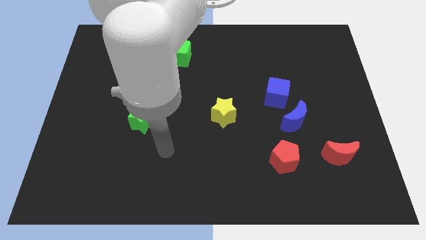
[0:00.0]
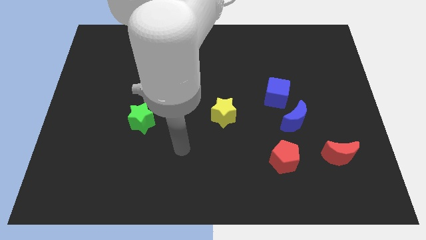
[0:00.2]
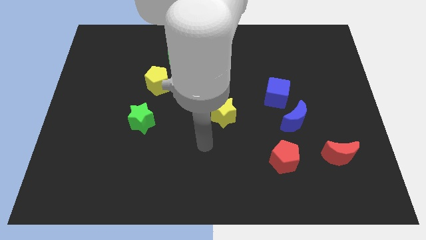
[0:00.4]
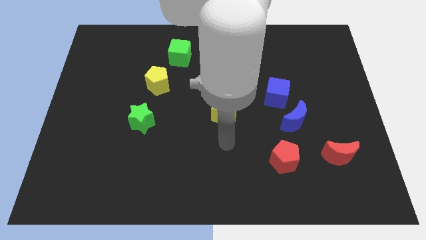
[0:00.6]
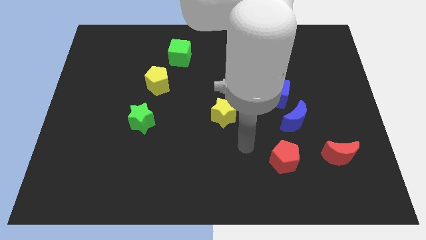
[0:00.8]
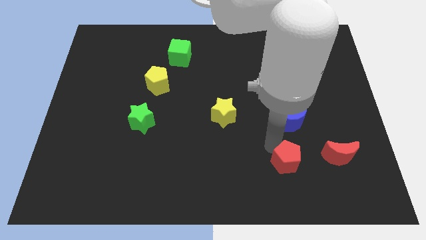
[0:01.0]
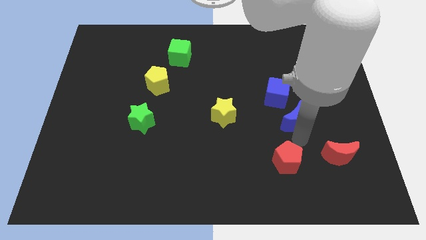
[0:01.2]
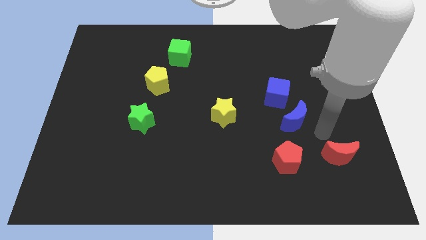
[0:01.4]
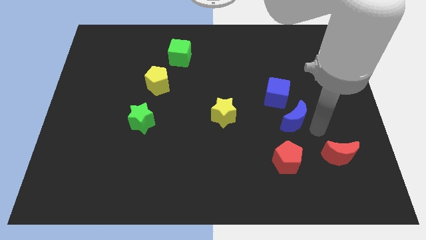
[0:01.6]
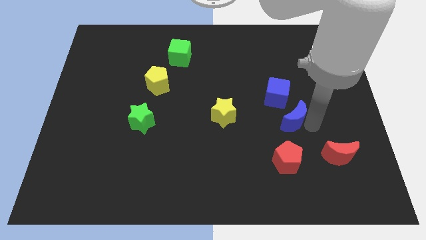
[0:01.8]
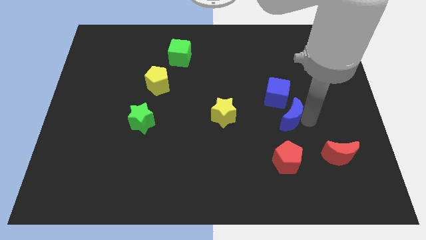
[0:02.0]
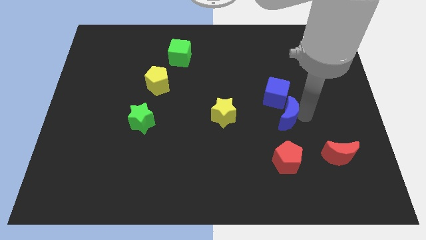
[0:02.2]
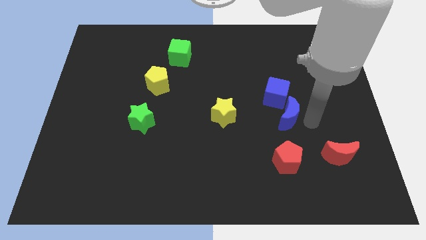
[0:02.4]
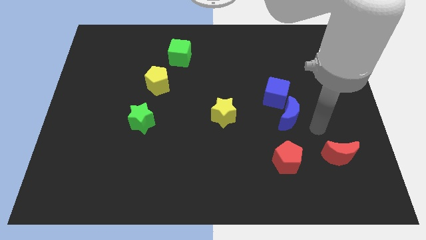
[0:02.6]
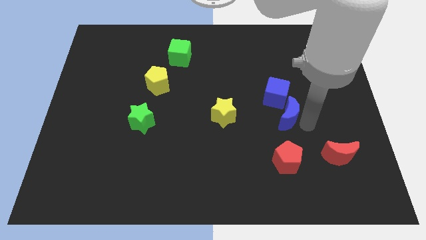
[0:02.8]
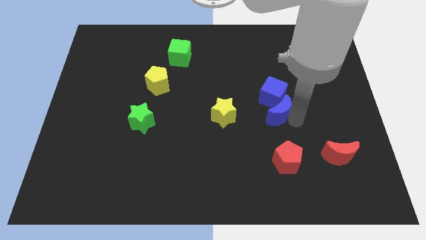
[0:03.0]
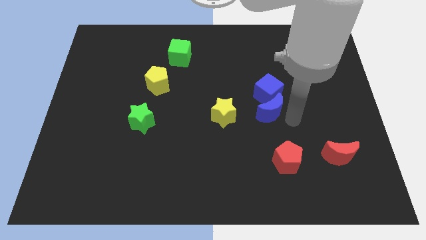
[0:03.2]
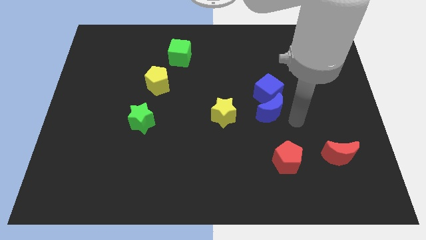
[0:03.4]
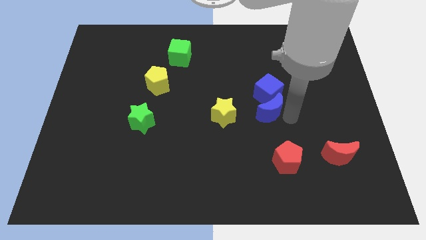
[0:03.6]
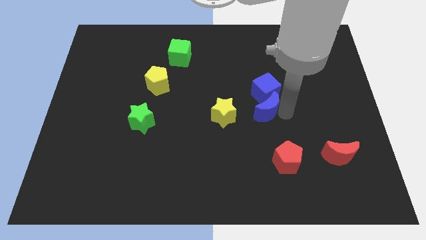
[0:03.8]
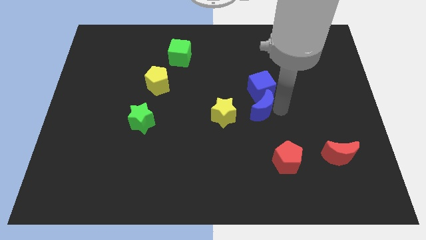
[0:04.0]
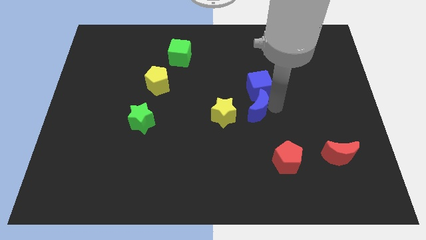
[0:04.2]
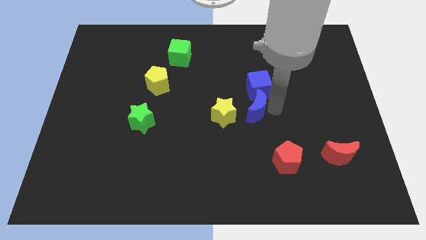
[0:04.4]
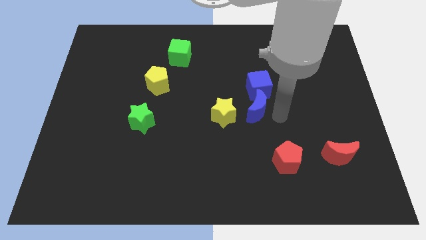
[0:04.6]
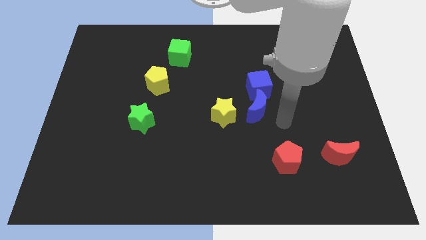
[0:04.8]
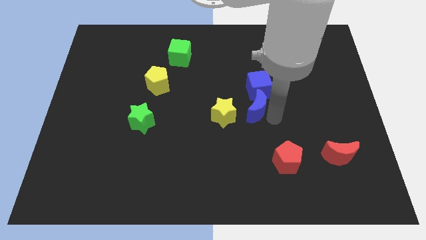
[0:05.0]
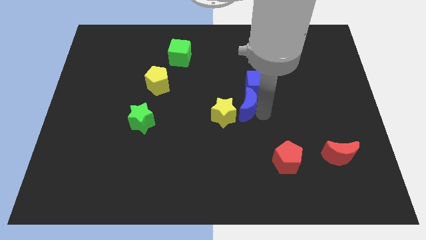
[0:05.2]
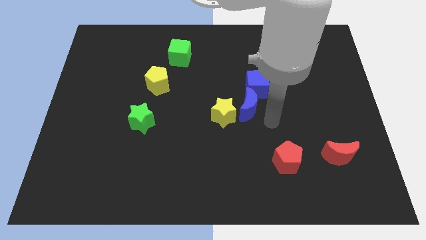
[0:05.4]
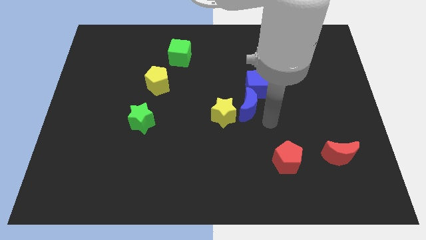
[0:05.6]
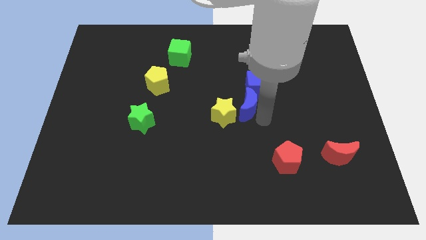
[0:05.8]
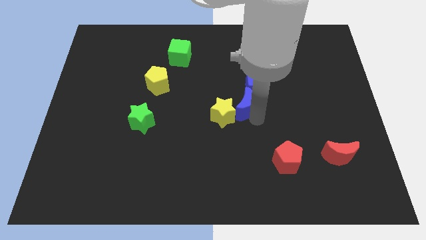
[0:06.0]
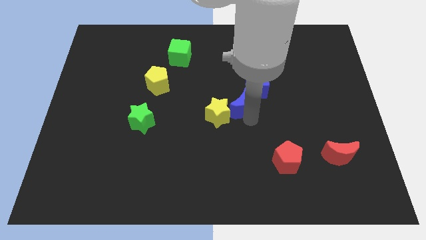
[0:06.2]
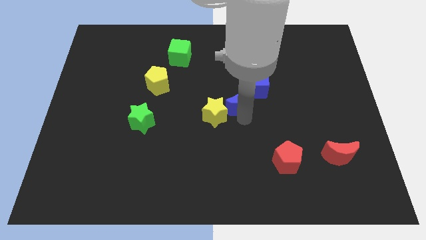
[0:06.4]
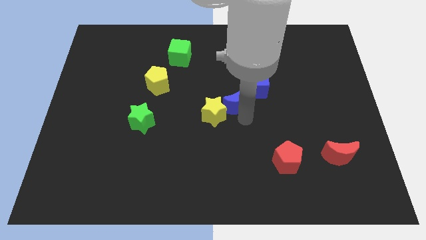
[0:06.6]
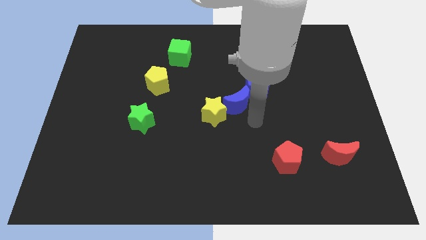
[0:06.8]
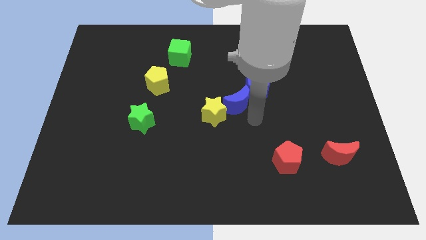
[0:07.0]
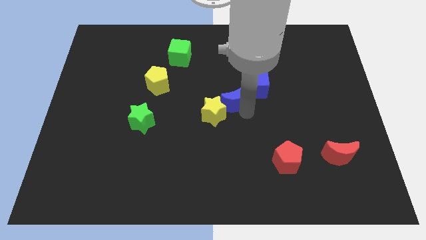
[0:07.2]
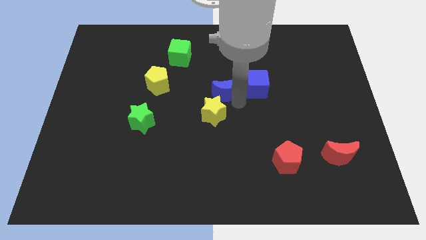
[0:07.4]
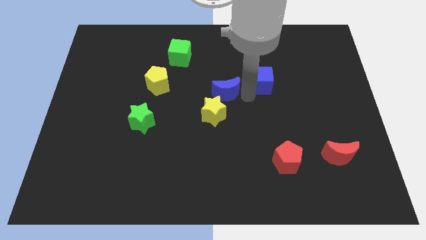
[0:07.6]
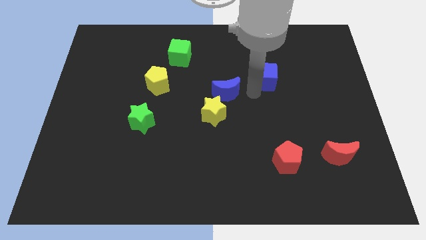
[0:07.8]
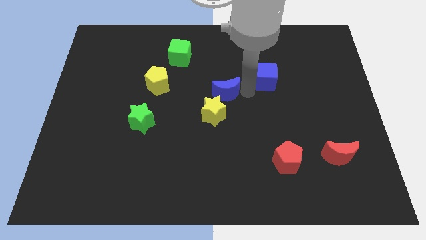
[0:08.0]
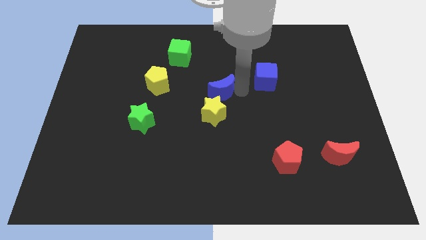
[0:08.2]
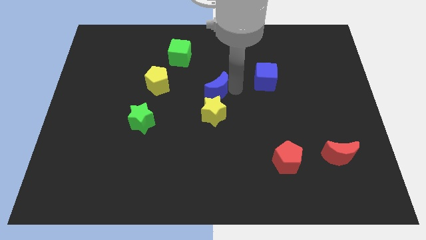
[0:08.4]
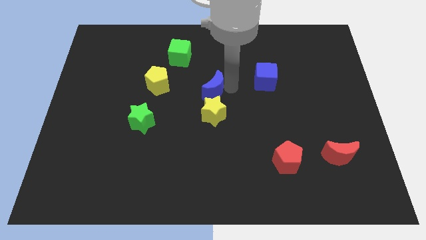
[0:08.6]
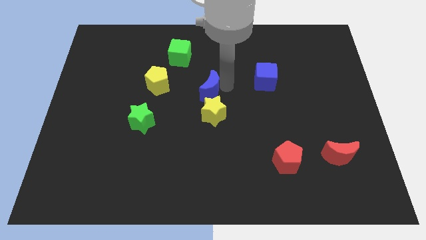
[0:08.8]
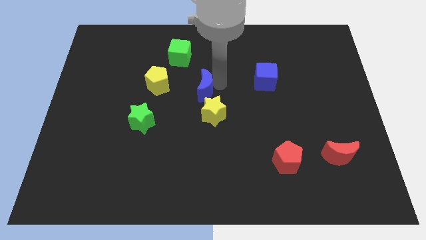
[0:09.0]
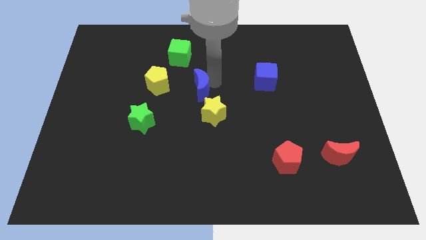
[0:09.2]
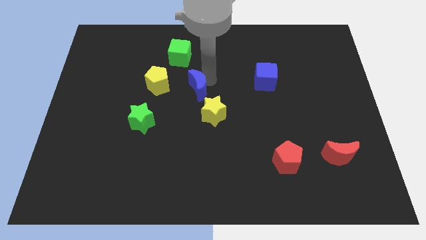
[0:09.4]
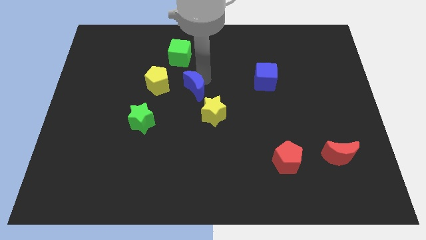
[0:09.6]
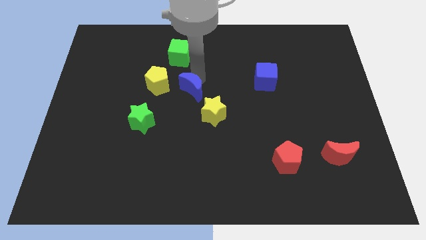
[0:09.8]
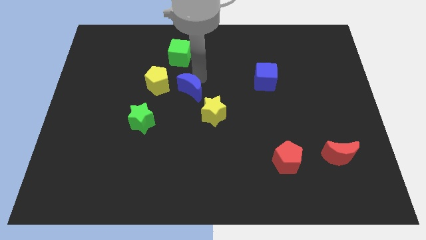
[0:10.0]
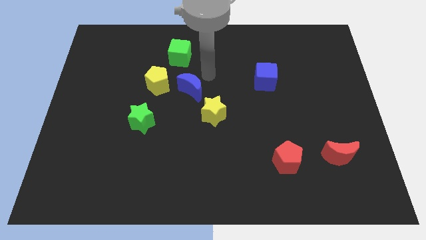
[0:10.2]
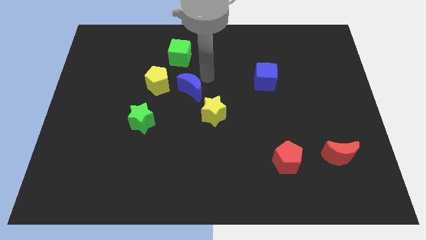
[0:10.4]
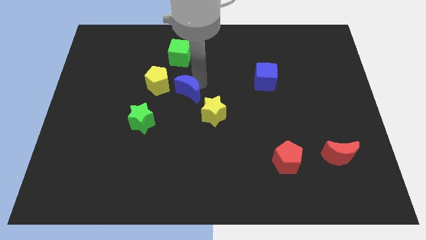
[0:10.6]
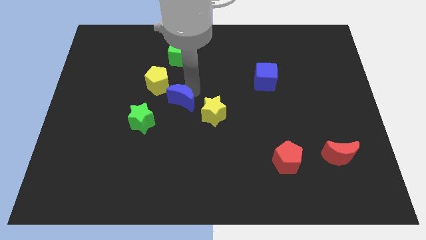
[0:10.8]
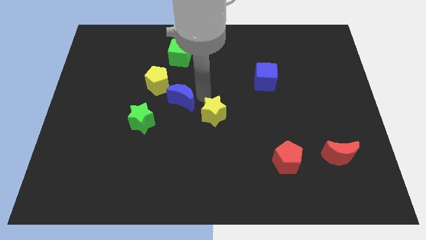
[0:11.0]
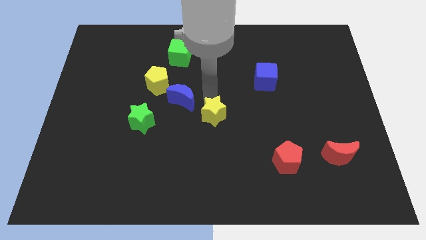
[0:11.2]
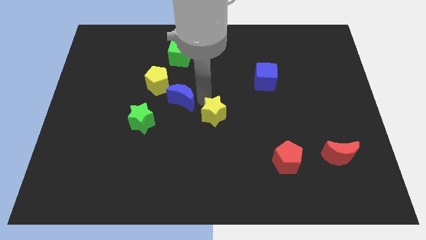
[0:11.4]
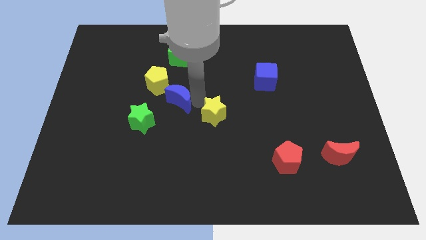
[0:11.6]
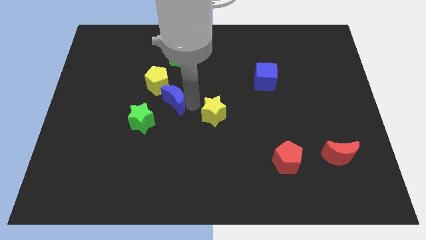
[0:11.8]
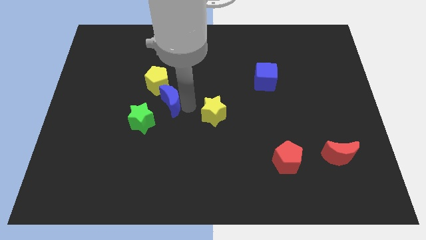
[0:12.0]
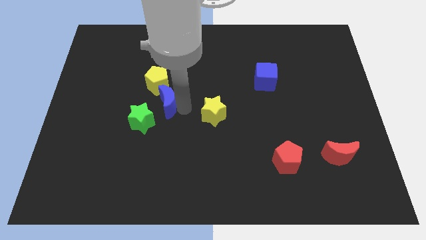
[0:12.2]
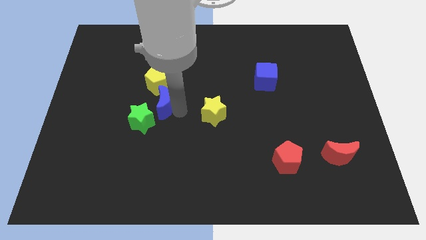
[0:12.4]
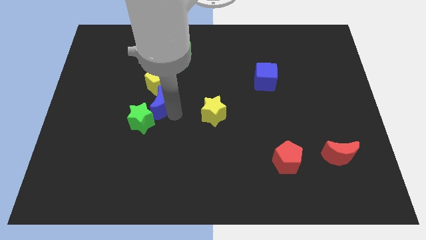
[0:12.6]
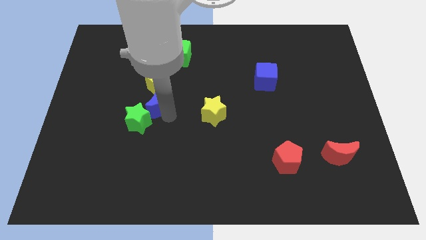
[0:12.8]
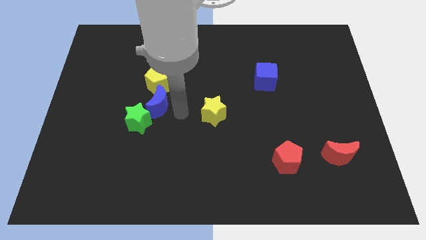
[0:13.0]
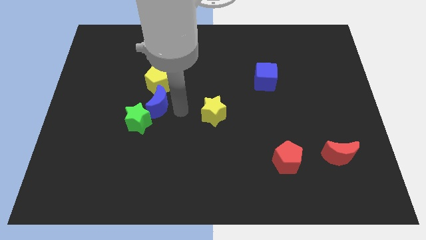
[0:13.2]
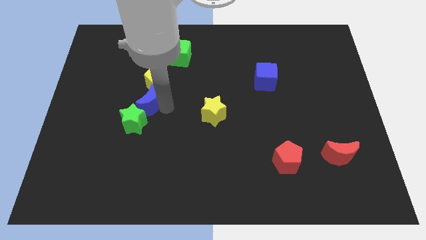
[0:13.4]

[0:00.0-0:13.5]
move the blue moon diagonally down and to the left of the yellow pentagon
